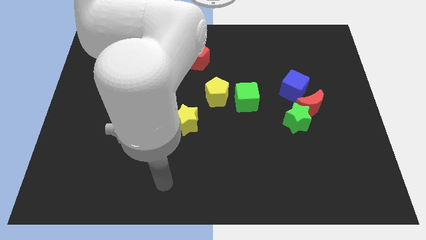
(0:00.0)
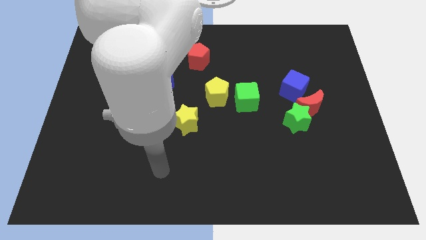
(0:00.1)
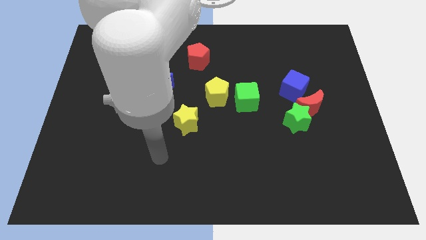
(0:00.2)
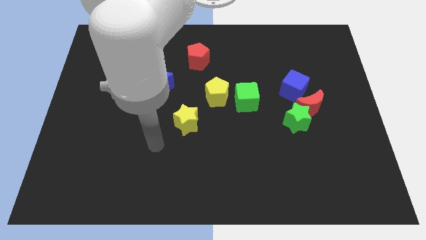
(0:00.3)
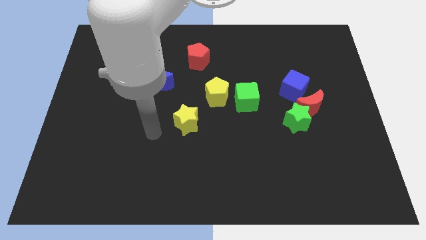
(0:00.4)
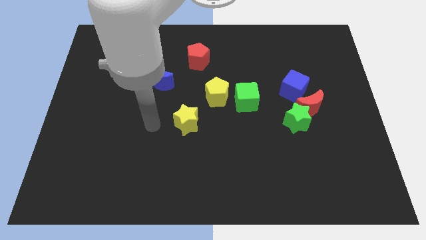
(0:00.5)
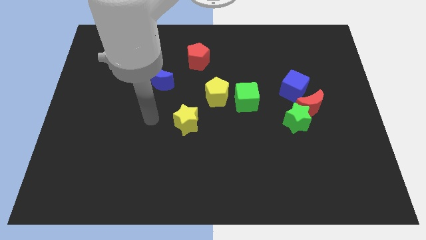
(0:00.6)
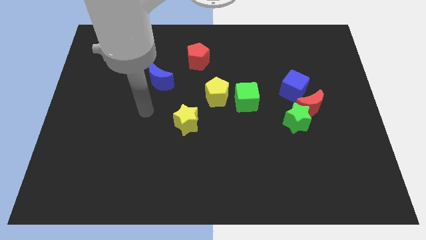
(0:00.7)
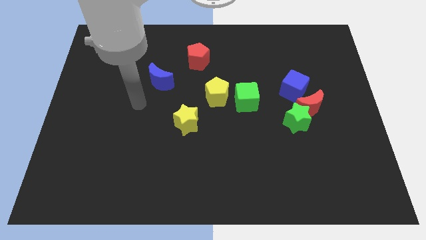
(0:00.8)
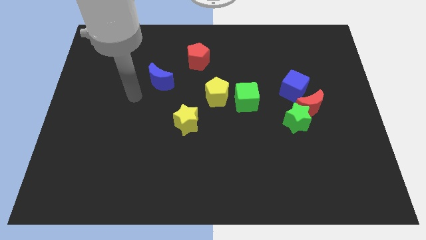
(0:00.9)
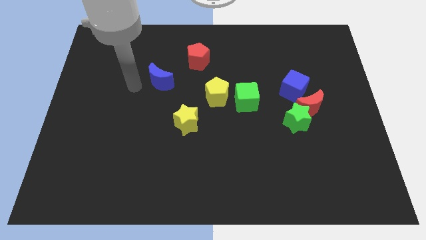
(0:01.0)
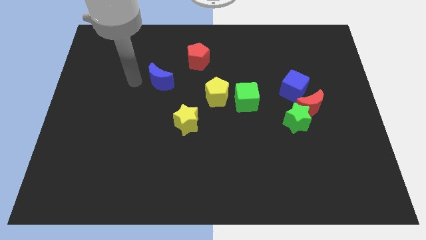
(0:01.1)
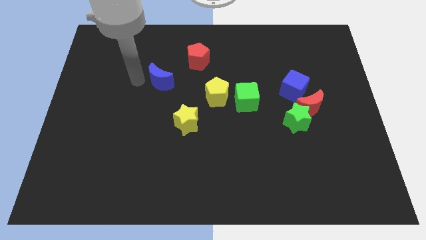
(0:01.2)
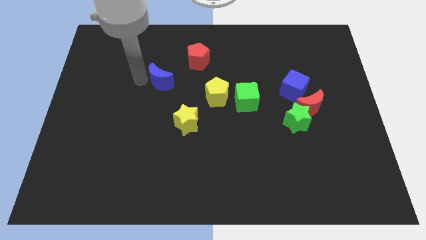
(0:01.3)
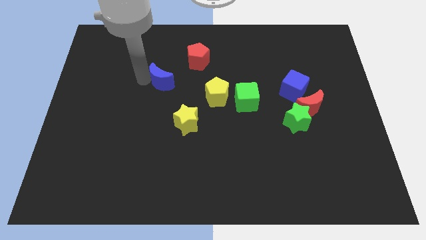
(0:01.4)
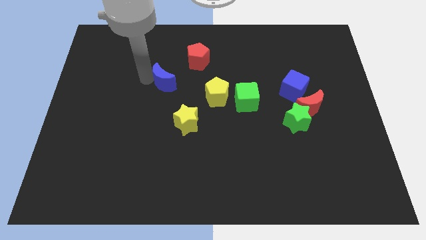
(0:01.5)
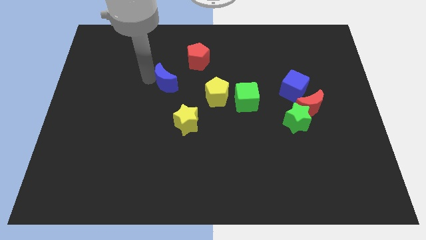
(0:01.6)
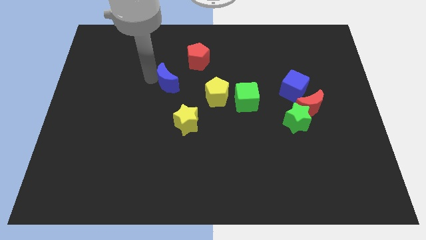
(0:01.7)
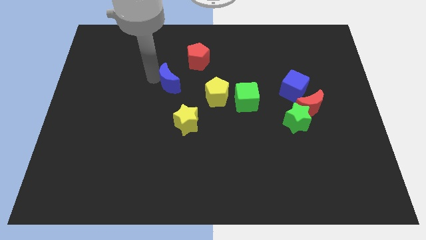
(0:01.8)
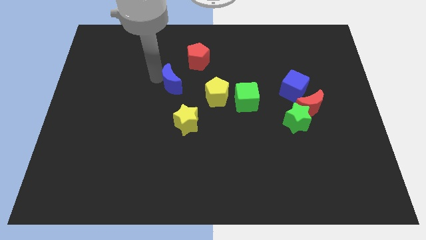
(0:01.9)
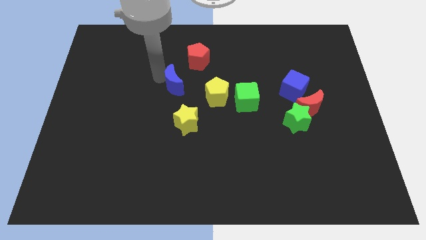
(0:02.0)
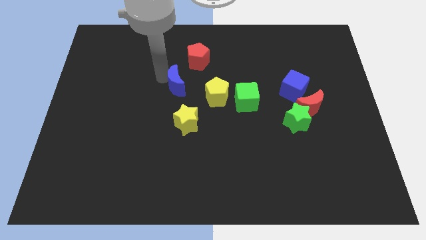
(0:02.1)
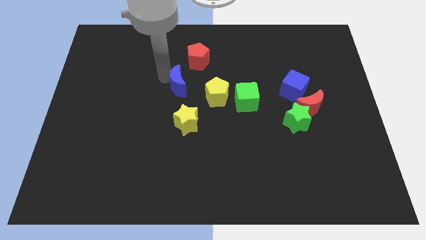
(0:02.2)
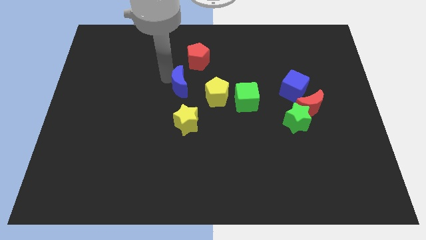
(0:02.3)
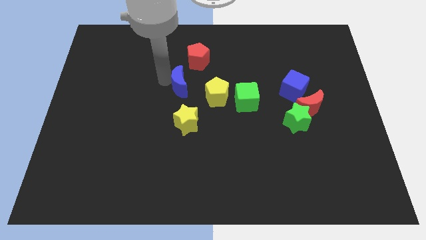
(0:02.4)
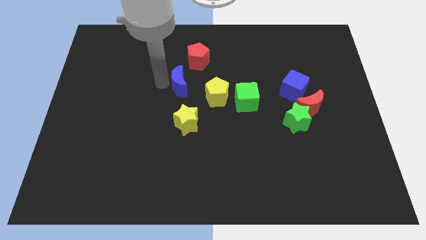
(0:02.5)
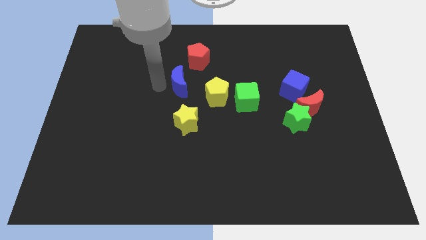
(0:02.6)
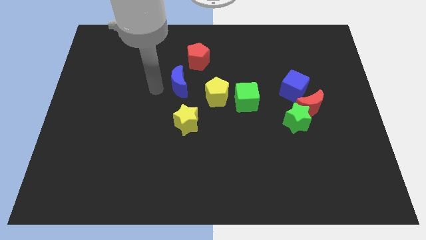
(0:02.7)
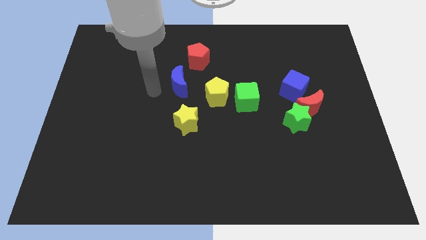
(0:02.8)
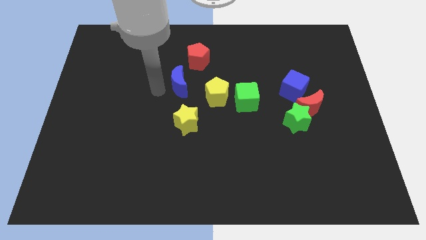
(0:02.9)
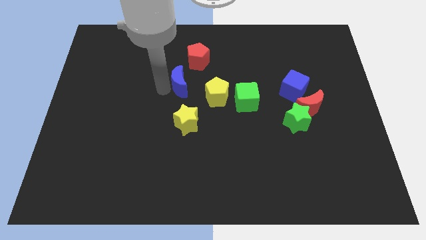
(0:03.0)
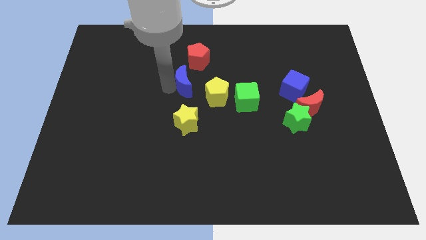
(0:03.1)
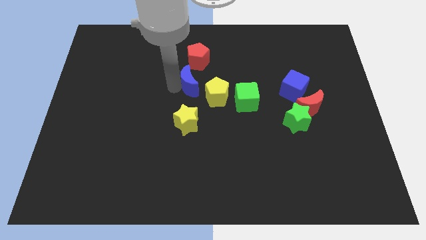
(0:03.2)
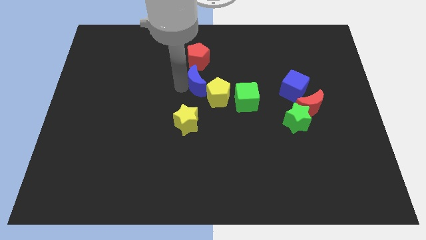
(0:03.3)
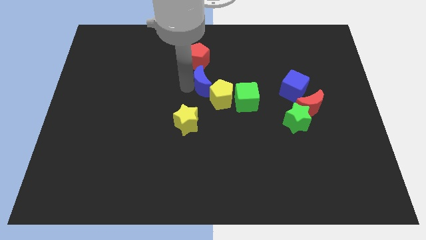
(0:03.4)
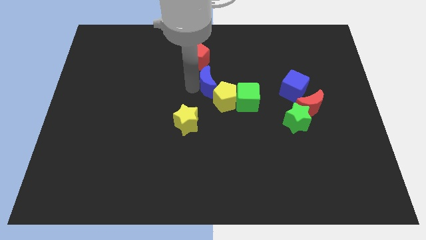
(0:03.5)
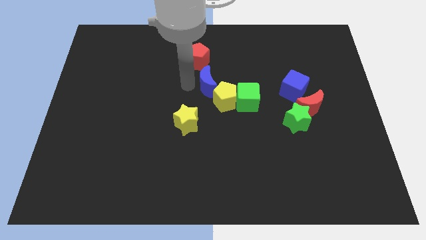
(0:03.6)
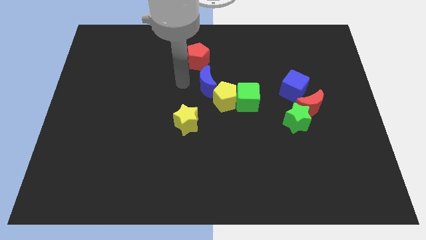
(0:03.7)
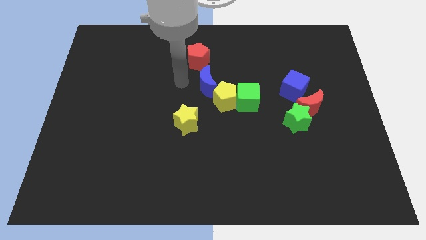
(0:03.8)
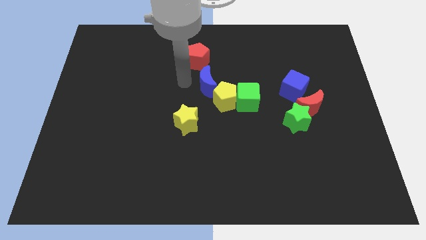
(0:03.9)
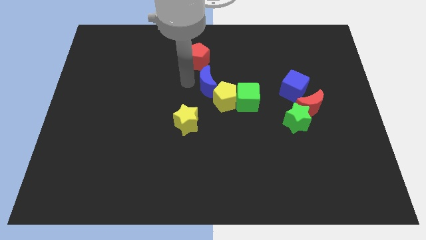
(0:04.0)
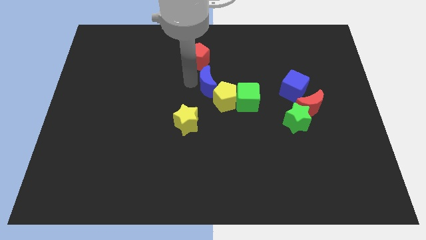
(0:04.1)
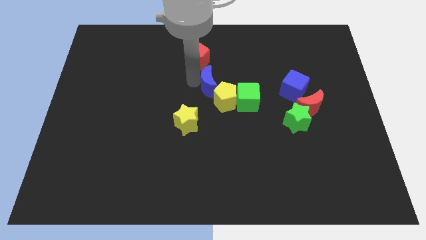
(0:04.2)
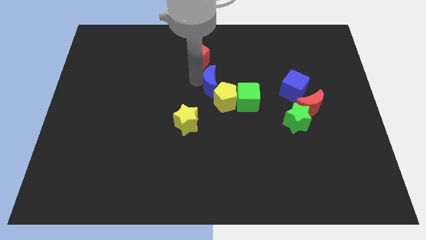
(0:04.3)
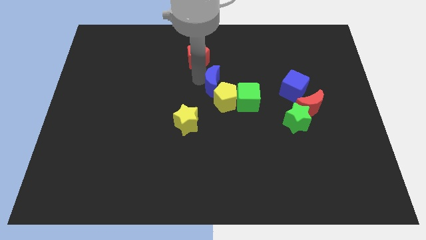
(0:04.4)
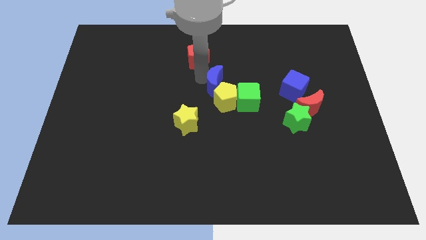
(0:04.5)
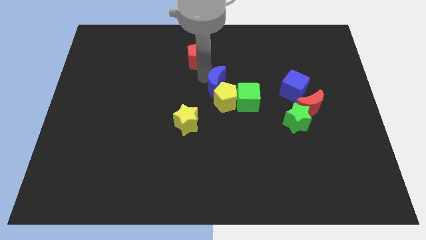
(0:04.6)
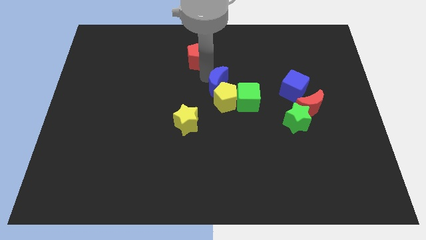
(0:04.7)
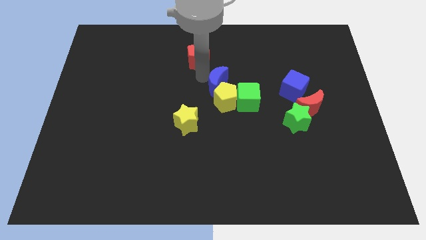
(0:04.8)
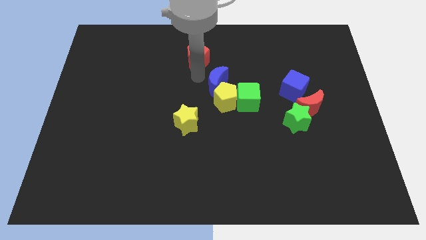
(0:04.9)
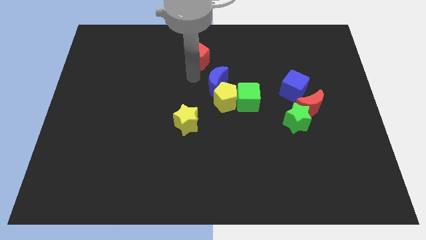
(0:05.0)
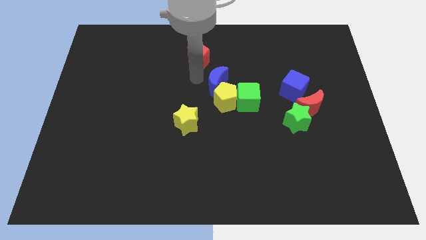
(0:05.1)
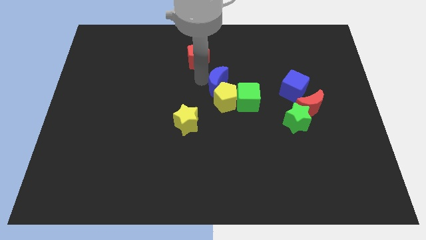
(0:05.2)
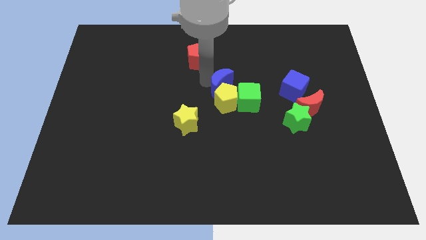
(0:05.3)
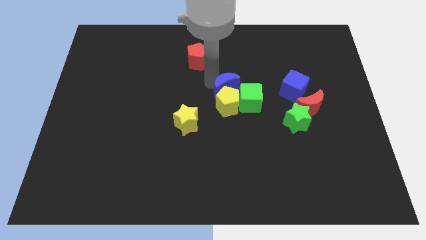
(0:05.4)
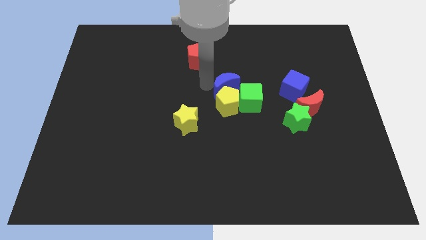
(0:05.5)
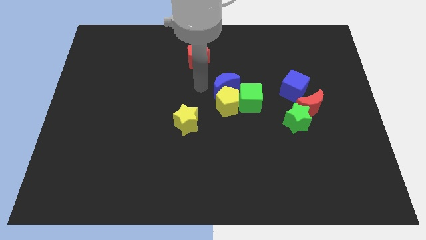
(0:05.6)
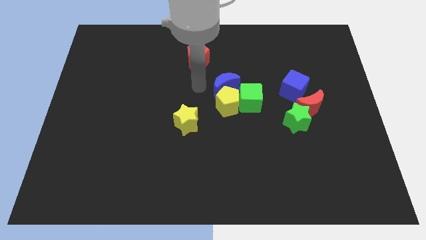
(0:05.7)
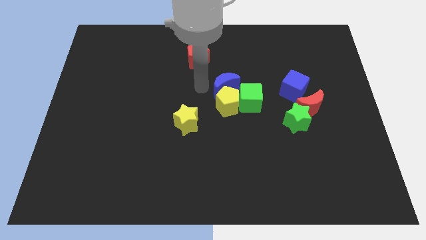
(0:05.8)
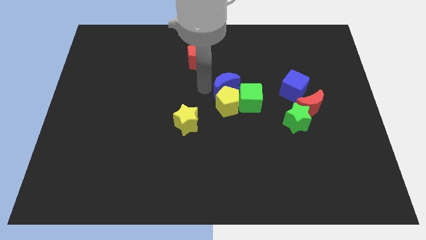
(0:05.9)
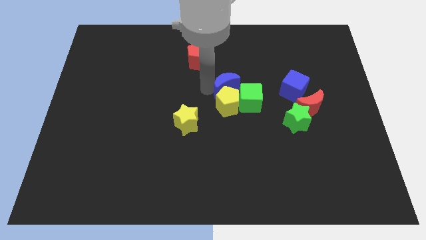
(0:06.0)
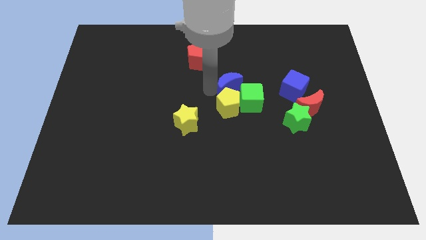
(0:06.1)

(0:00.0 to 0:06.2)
slide the blue moon left of the blue cube

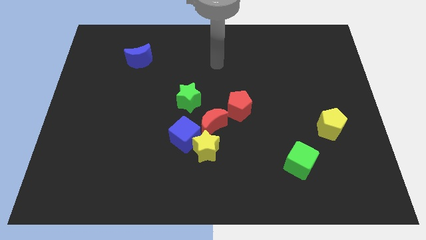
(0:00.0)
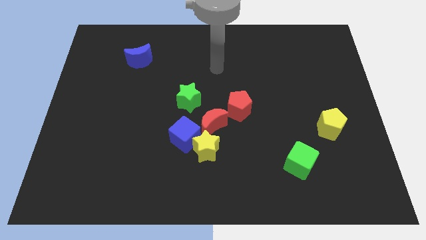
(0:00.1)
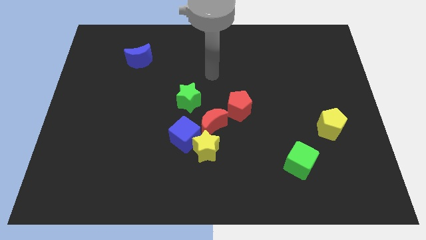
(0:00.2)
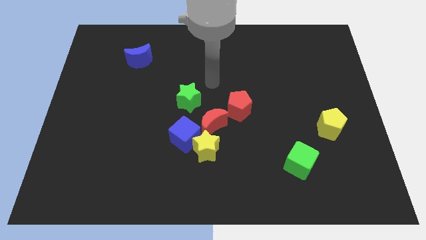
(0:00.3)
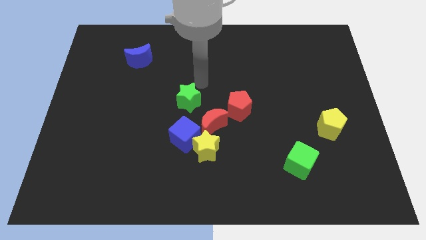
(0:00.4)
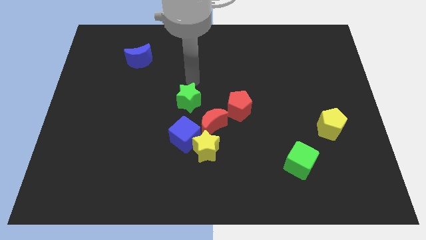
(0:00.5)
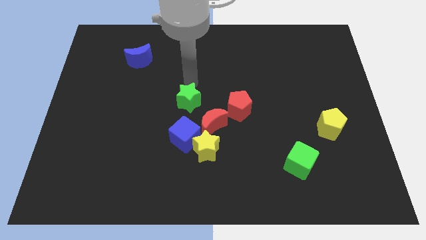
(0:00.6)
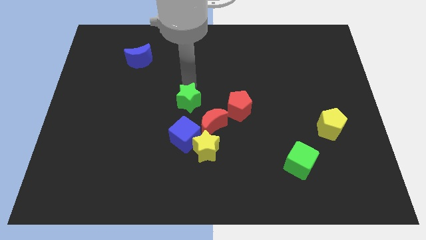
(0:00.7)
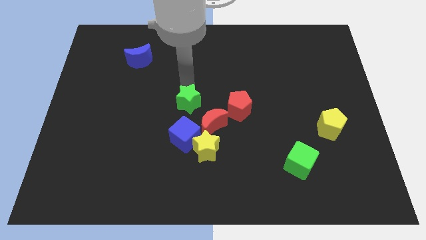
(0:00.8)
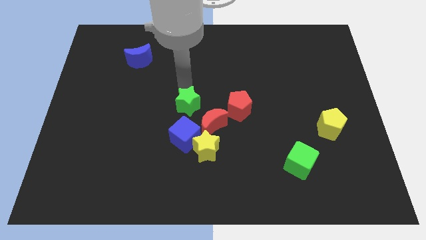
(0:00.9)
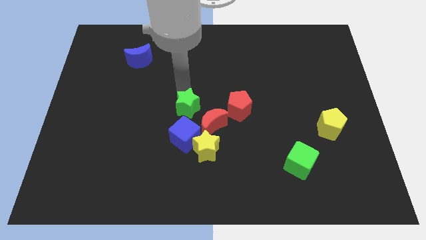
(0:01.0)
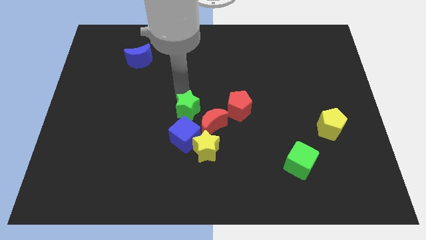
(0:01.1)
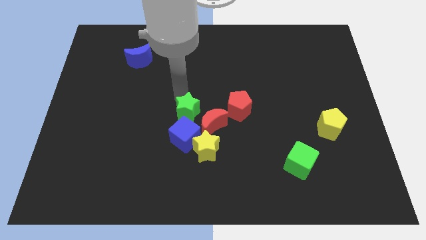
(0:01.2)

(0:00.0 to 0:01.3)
move the green star diagonally up and to the left of the yellow star
